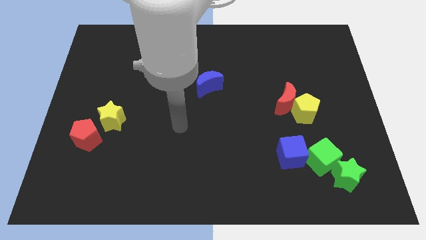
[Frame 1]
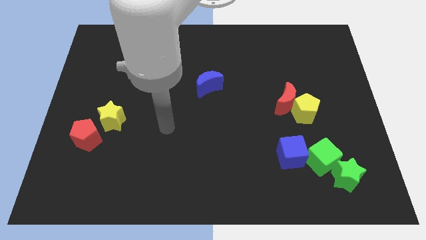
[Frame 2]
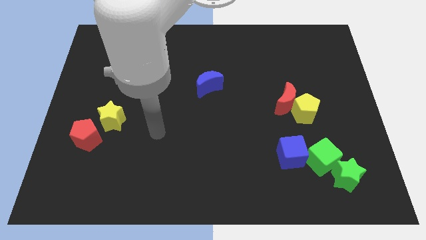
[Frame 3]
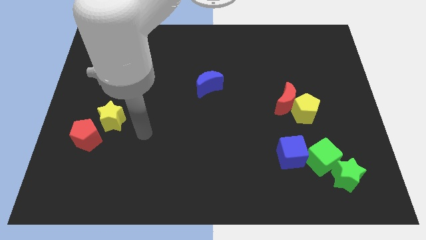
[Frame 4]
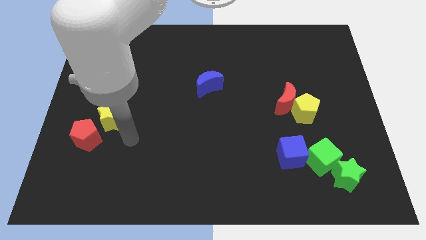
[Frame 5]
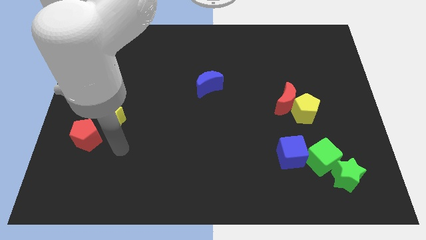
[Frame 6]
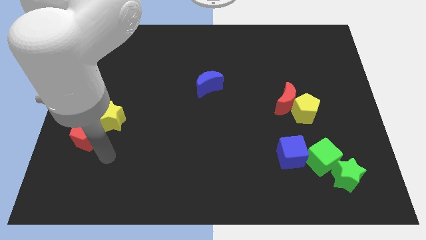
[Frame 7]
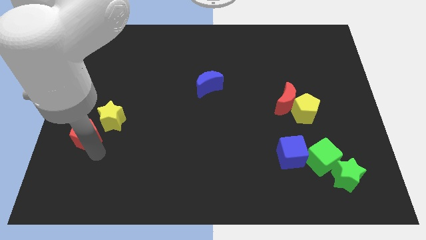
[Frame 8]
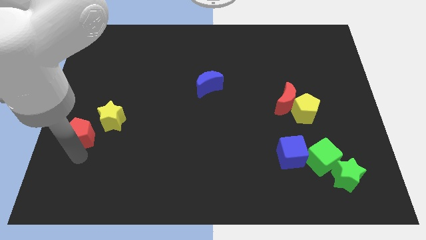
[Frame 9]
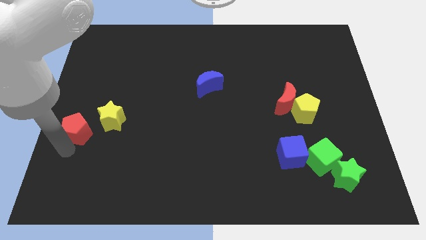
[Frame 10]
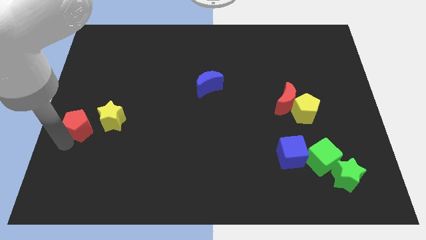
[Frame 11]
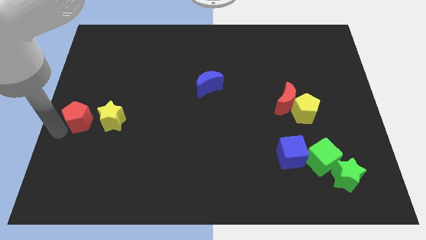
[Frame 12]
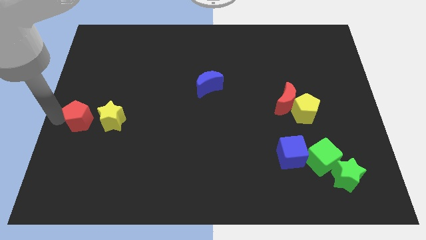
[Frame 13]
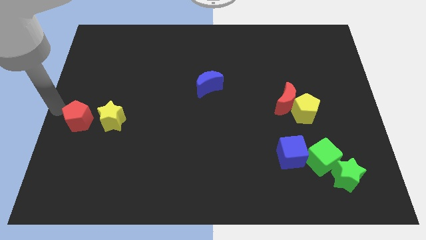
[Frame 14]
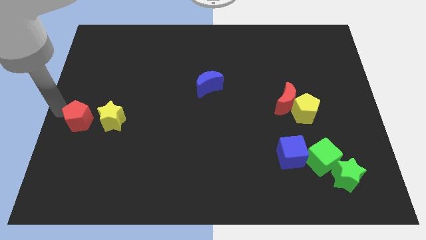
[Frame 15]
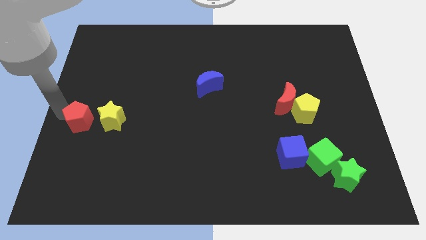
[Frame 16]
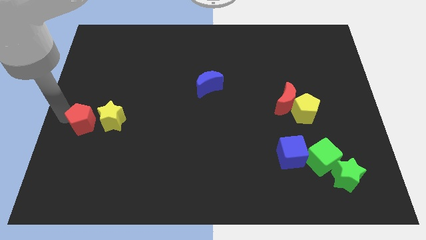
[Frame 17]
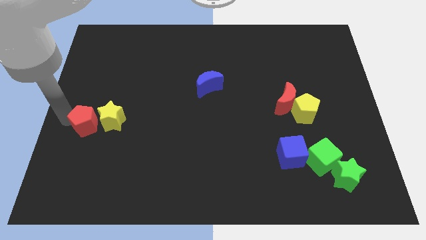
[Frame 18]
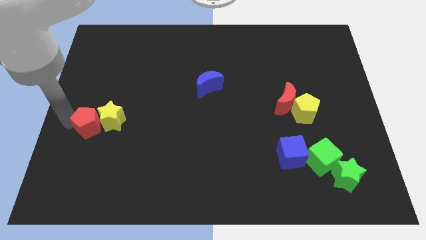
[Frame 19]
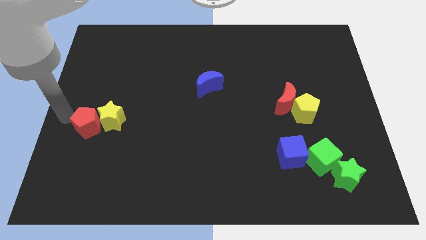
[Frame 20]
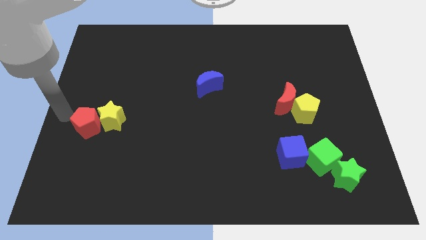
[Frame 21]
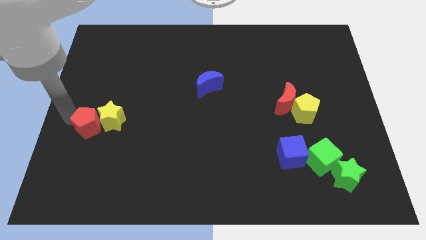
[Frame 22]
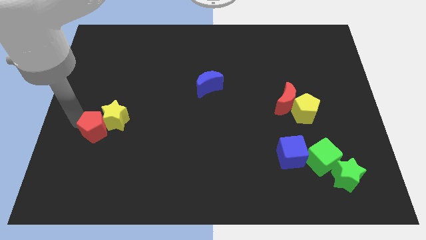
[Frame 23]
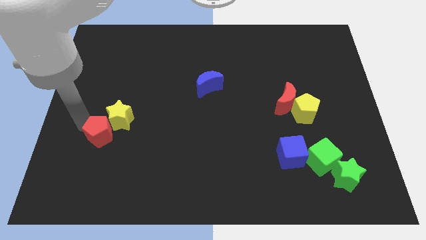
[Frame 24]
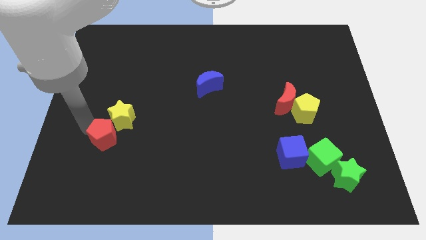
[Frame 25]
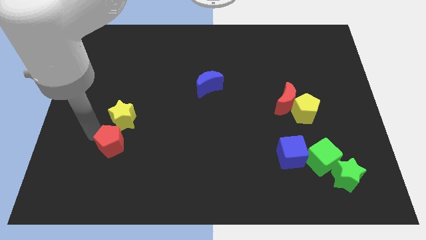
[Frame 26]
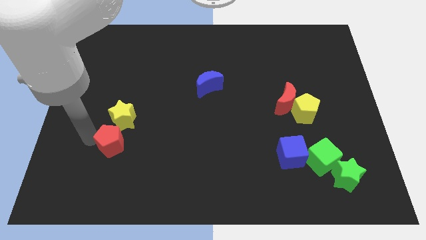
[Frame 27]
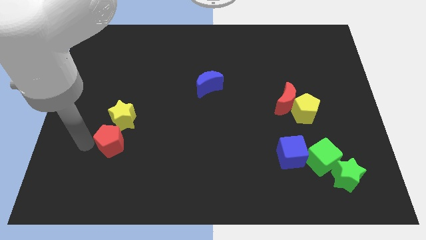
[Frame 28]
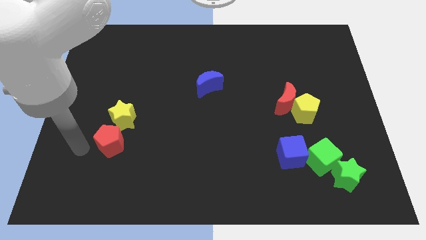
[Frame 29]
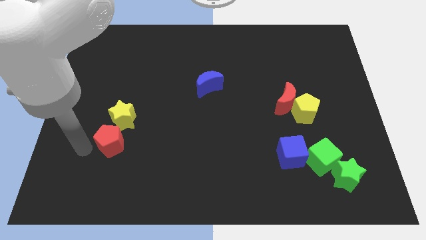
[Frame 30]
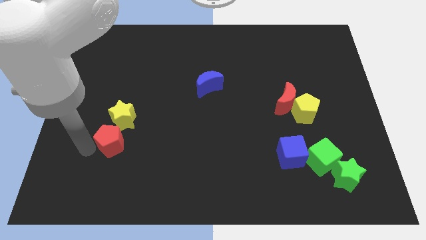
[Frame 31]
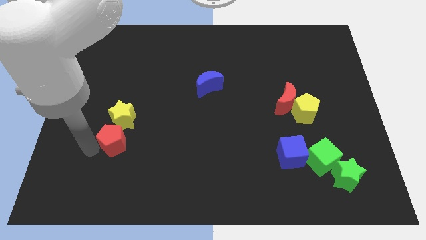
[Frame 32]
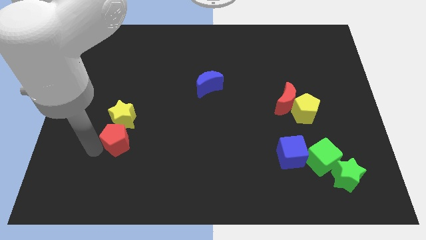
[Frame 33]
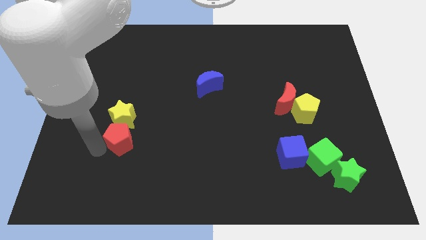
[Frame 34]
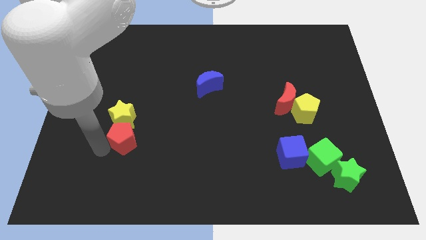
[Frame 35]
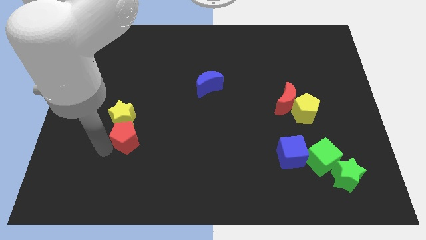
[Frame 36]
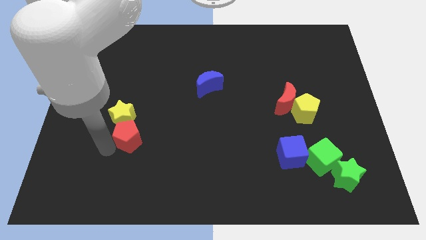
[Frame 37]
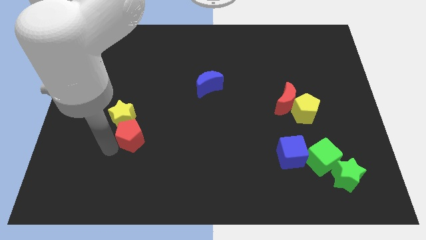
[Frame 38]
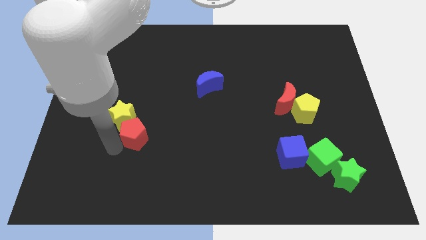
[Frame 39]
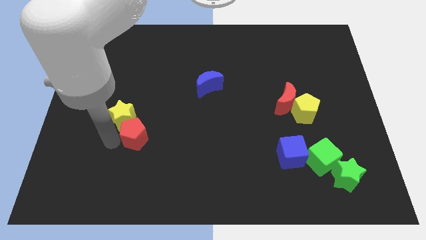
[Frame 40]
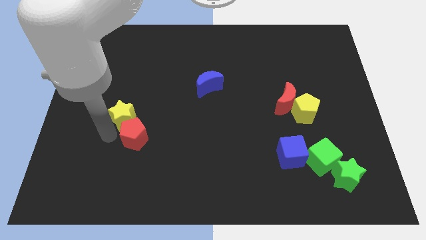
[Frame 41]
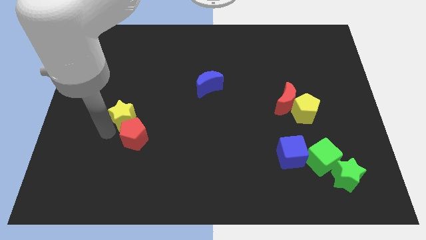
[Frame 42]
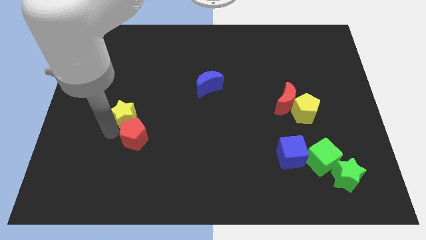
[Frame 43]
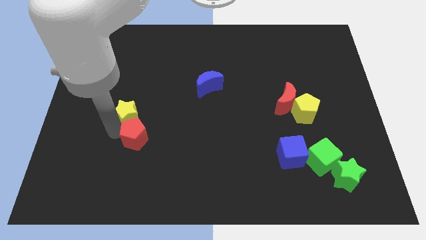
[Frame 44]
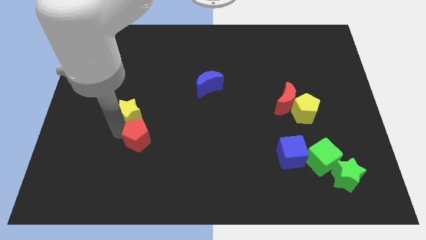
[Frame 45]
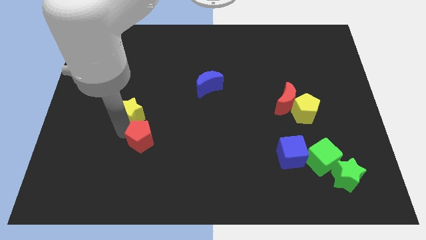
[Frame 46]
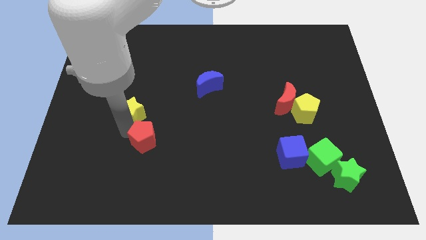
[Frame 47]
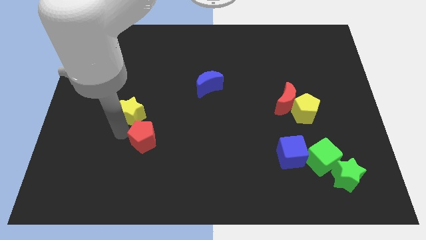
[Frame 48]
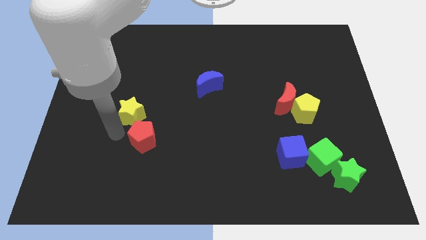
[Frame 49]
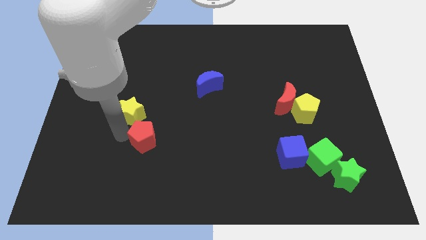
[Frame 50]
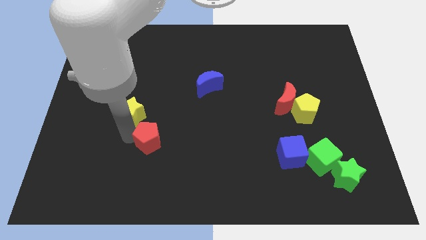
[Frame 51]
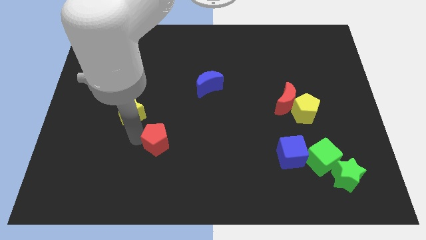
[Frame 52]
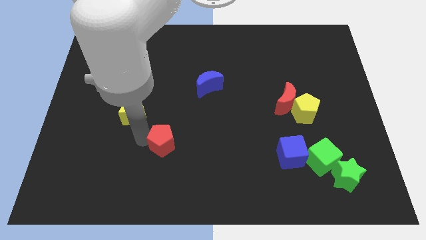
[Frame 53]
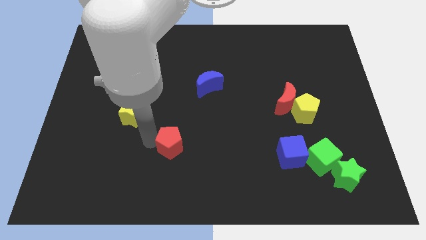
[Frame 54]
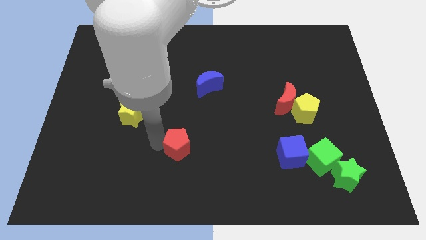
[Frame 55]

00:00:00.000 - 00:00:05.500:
slide the red pentagon to the right

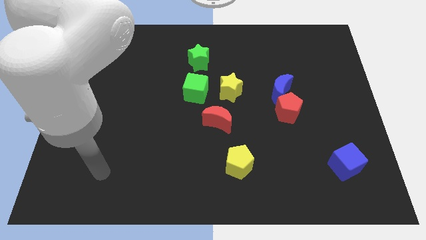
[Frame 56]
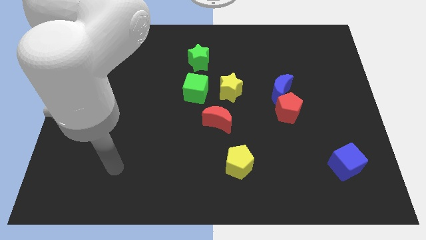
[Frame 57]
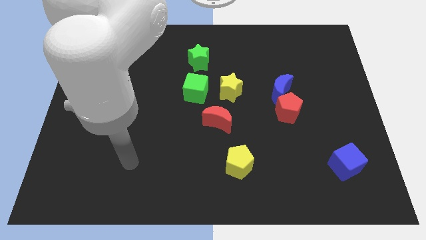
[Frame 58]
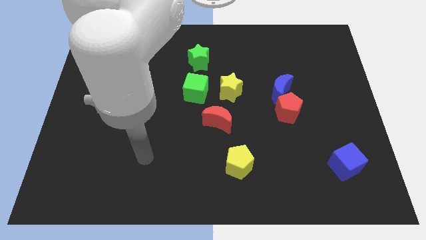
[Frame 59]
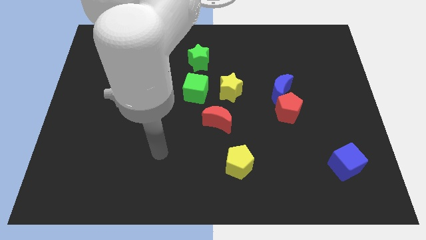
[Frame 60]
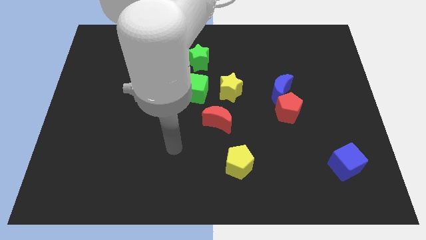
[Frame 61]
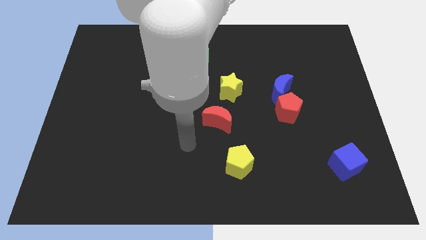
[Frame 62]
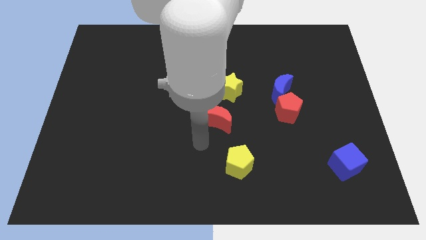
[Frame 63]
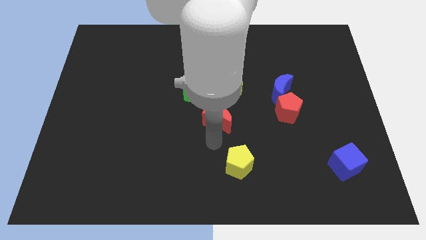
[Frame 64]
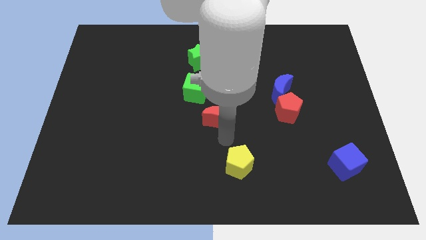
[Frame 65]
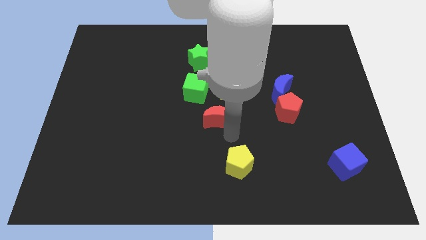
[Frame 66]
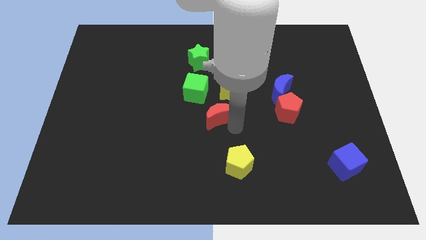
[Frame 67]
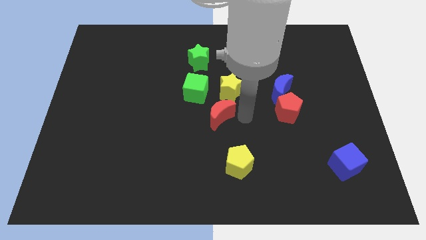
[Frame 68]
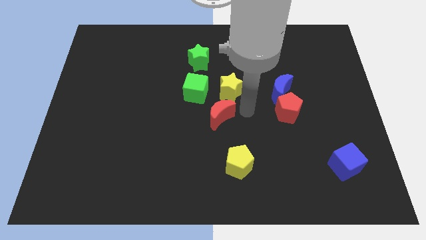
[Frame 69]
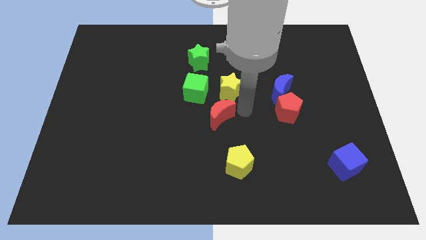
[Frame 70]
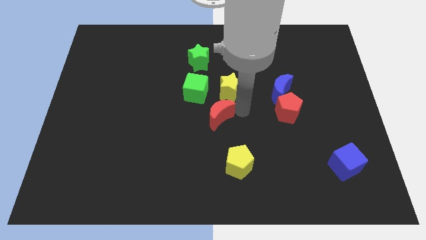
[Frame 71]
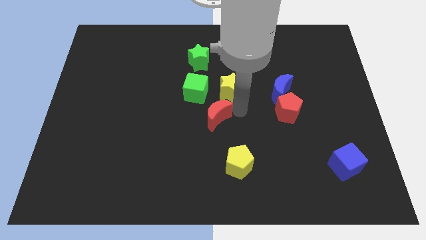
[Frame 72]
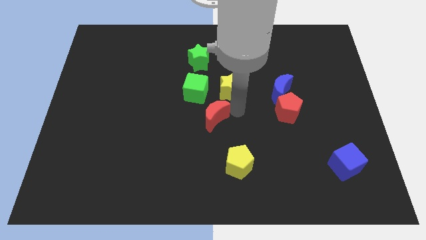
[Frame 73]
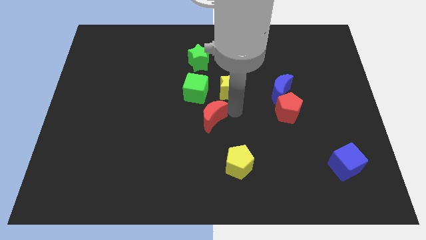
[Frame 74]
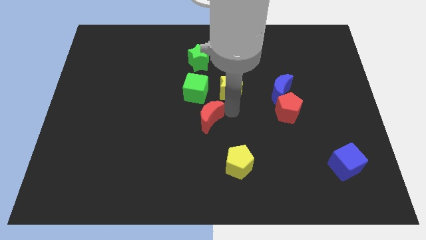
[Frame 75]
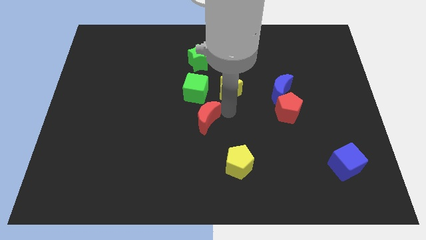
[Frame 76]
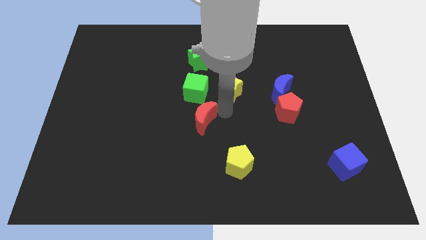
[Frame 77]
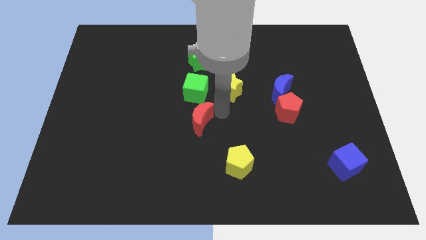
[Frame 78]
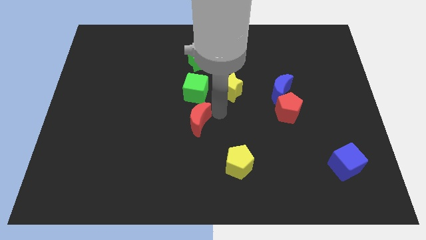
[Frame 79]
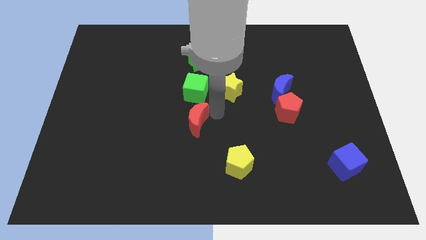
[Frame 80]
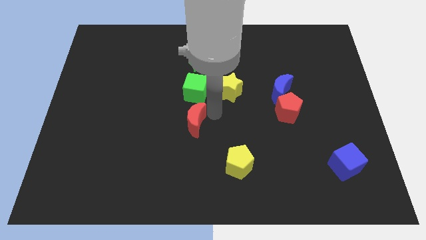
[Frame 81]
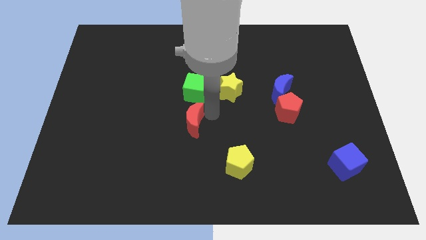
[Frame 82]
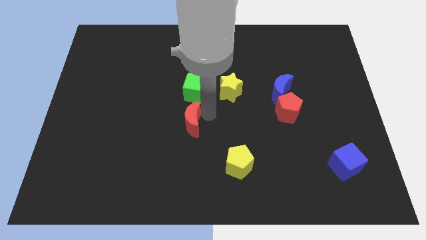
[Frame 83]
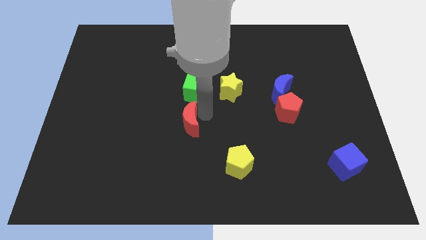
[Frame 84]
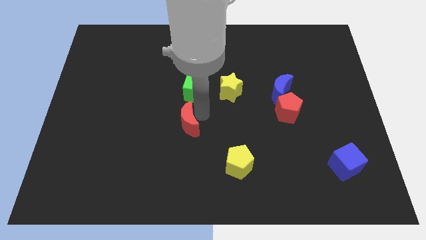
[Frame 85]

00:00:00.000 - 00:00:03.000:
slightly push the red moon left
